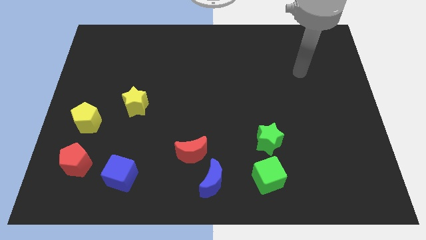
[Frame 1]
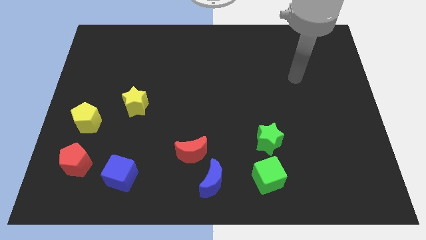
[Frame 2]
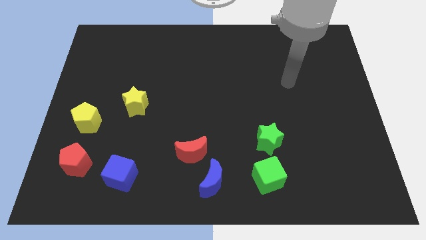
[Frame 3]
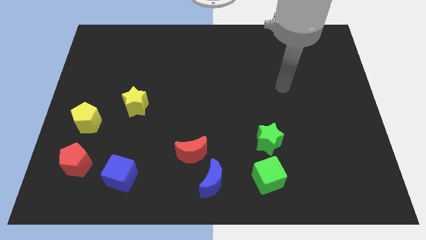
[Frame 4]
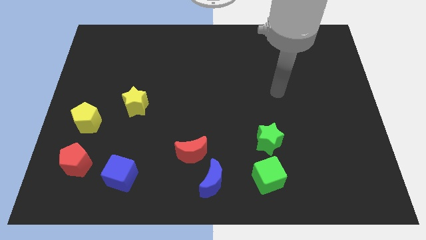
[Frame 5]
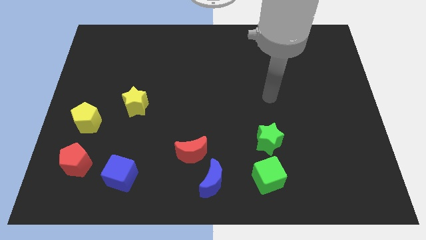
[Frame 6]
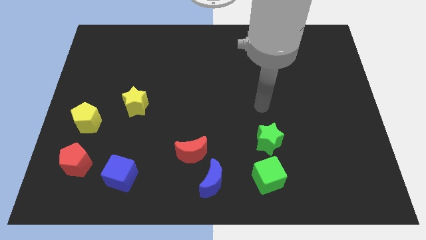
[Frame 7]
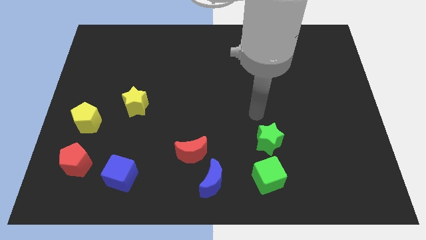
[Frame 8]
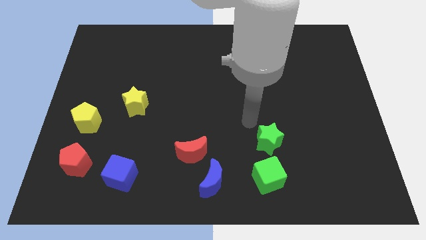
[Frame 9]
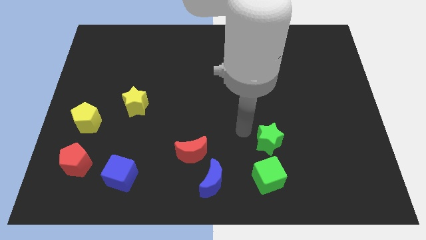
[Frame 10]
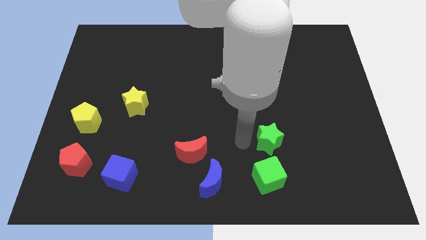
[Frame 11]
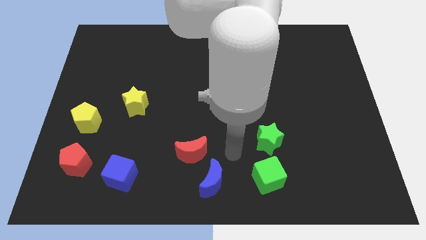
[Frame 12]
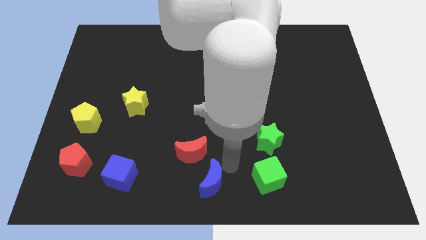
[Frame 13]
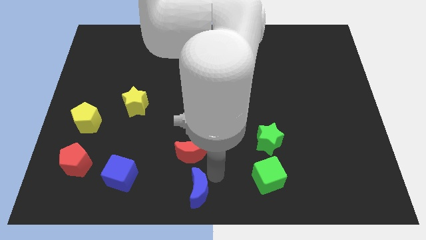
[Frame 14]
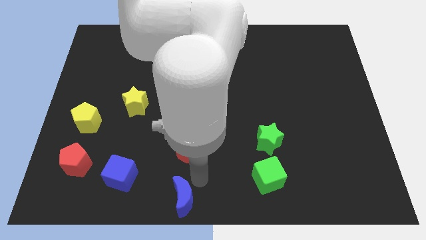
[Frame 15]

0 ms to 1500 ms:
move the red moon away from the blue moon

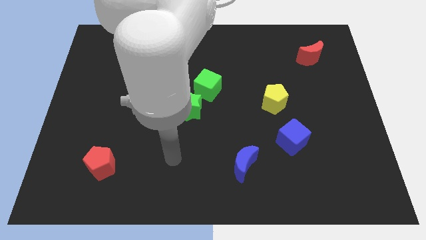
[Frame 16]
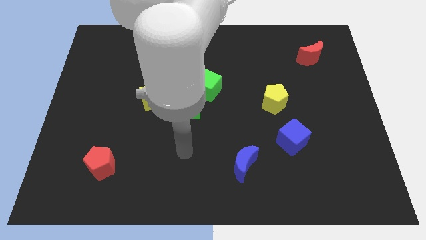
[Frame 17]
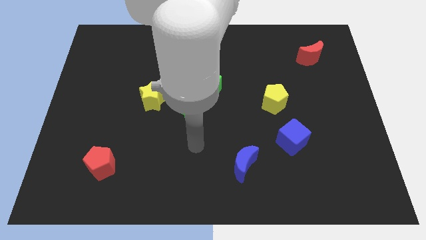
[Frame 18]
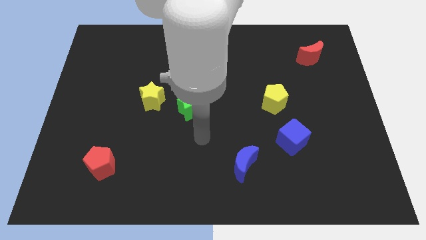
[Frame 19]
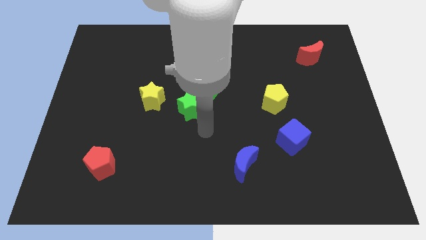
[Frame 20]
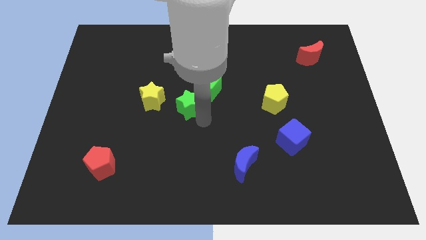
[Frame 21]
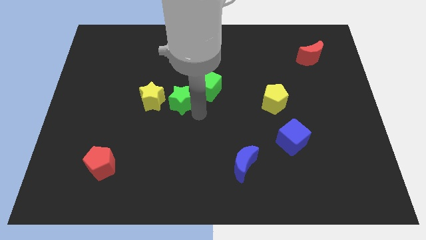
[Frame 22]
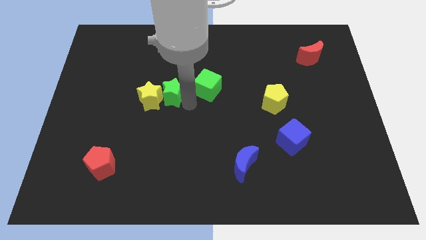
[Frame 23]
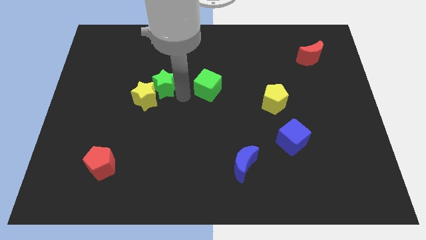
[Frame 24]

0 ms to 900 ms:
pull the green cube apart from the green star

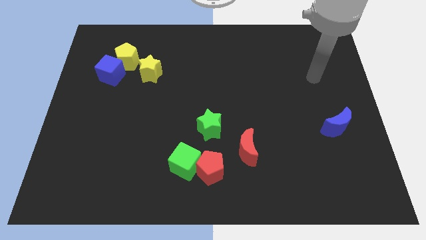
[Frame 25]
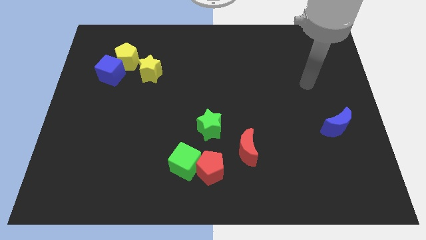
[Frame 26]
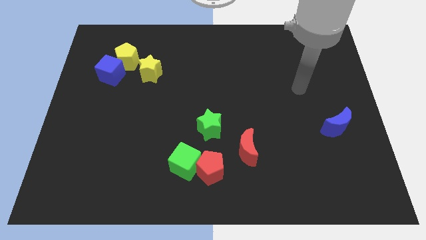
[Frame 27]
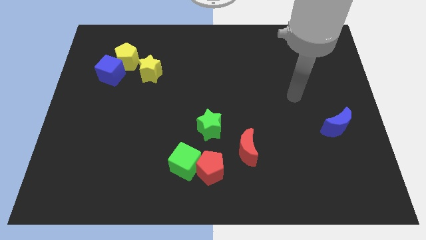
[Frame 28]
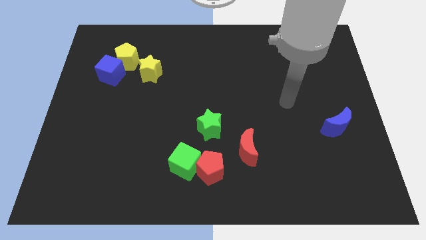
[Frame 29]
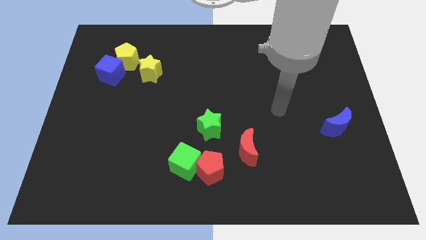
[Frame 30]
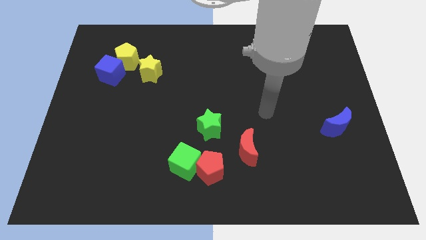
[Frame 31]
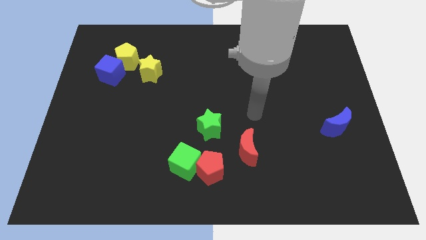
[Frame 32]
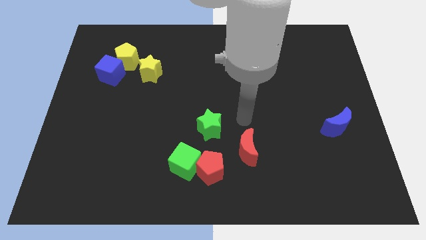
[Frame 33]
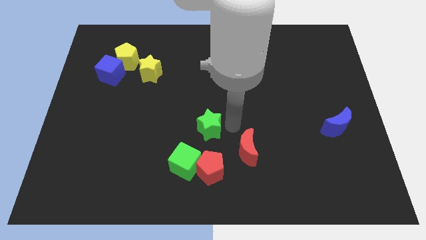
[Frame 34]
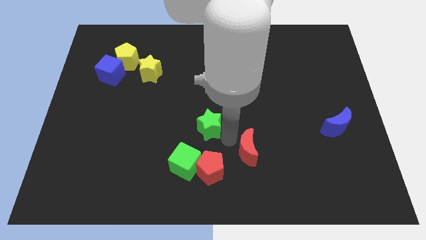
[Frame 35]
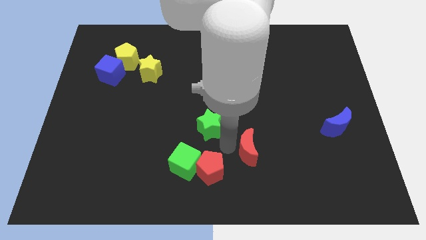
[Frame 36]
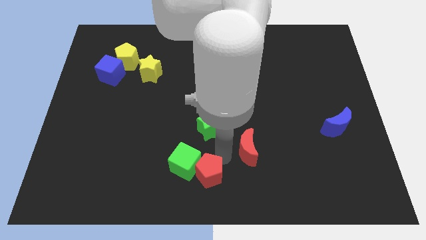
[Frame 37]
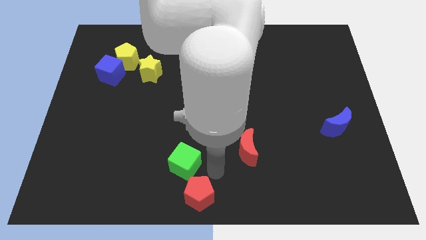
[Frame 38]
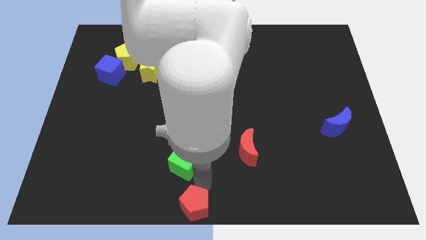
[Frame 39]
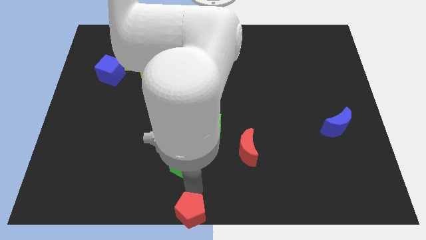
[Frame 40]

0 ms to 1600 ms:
separate the green cube from the red pentagon

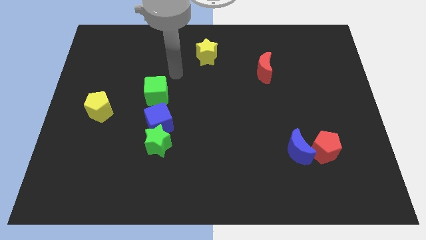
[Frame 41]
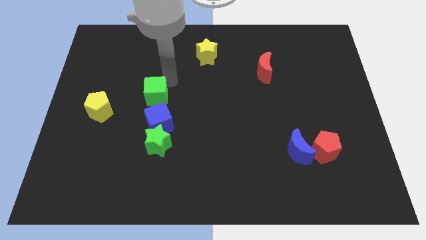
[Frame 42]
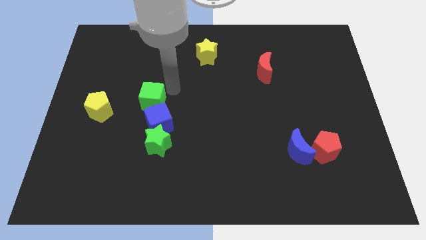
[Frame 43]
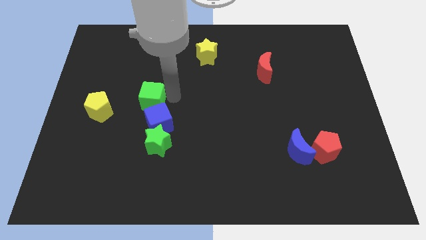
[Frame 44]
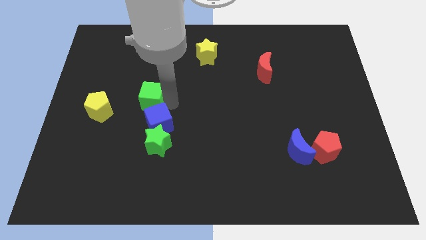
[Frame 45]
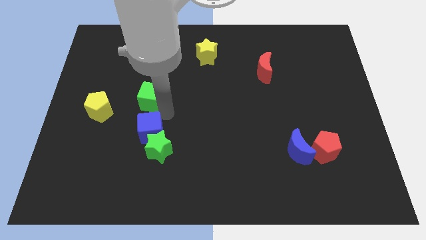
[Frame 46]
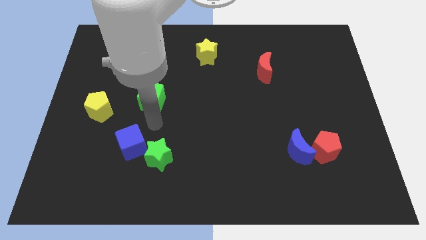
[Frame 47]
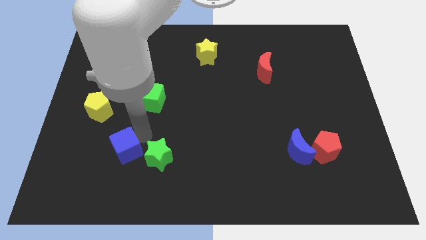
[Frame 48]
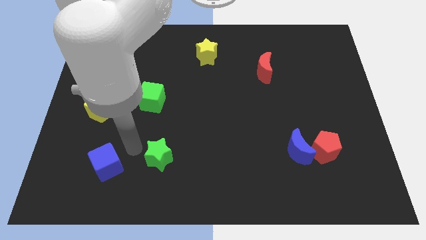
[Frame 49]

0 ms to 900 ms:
move the green star away from the blue cube

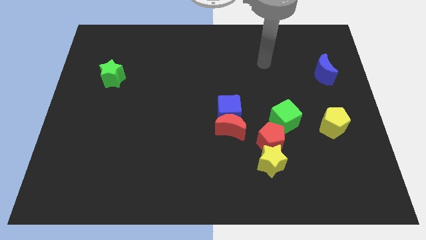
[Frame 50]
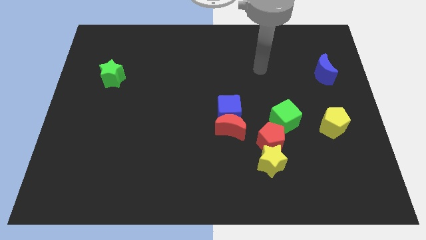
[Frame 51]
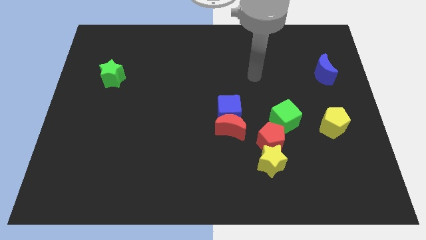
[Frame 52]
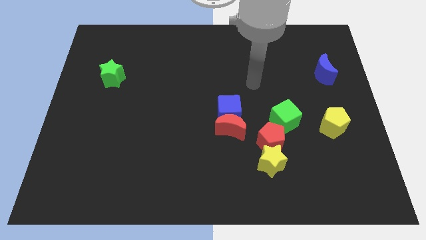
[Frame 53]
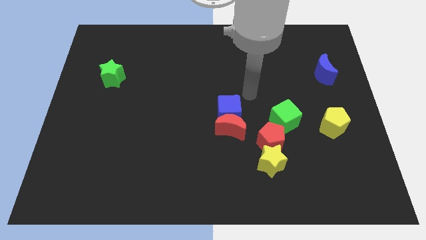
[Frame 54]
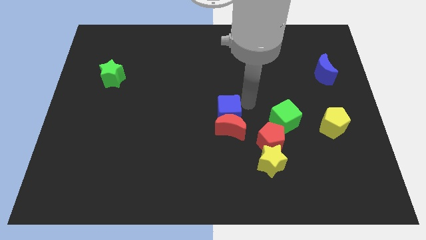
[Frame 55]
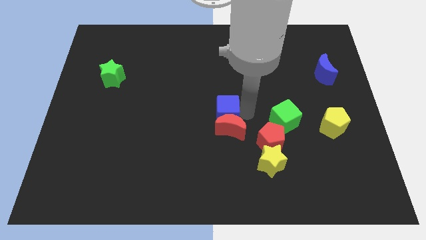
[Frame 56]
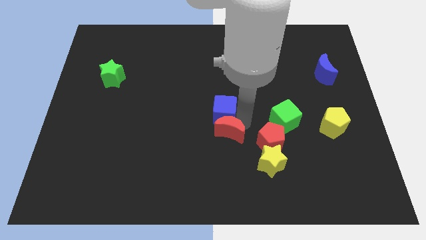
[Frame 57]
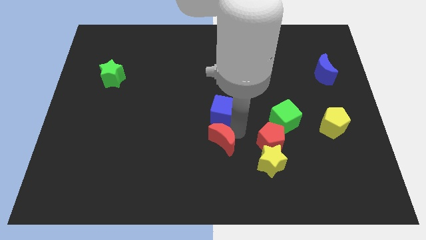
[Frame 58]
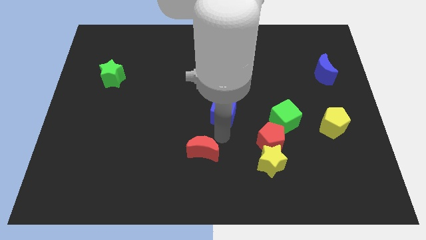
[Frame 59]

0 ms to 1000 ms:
pull the blue cube apart from the red moon

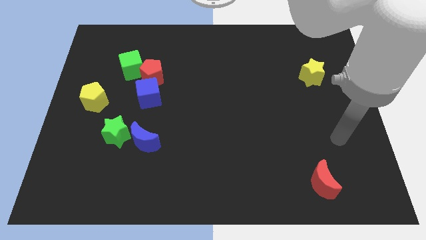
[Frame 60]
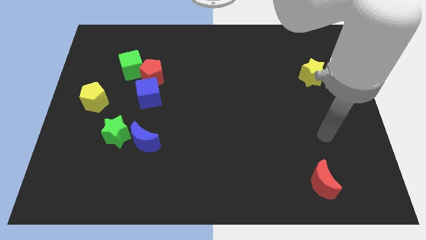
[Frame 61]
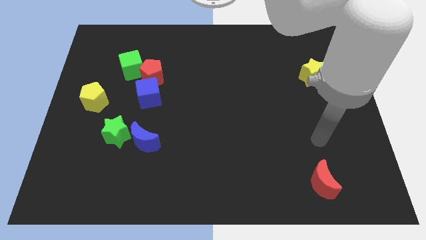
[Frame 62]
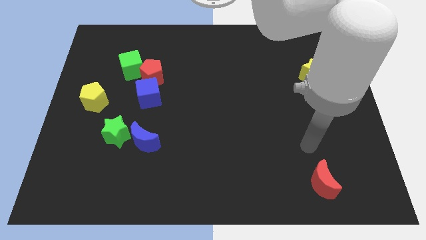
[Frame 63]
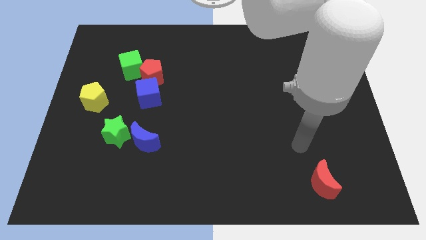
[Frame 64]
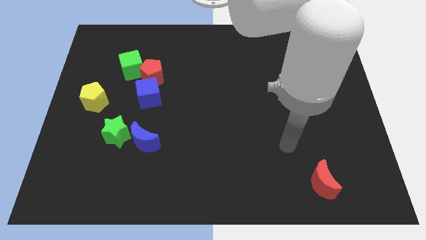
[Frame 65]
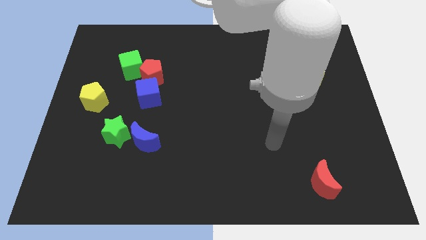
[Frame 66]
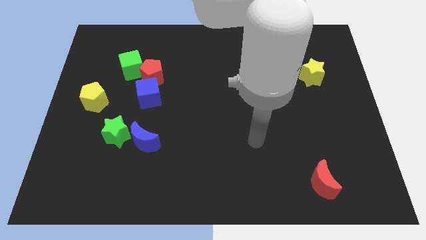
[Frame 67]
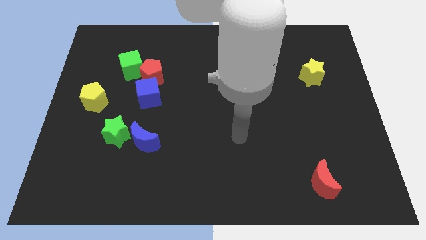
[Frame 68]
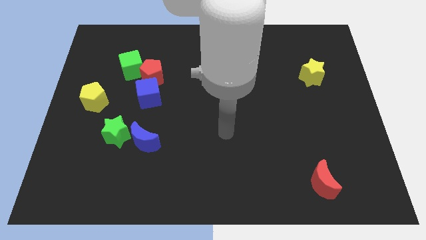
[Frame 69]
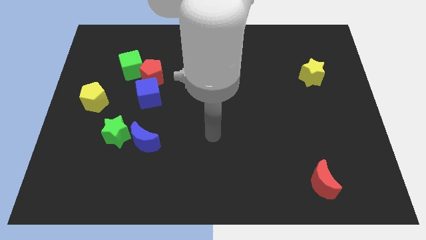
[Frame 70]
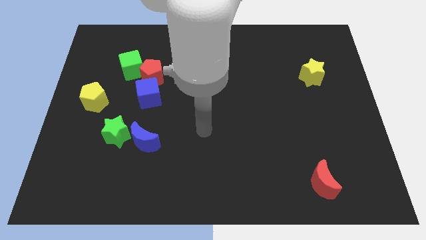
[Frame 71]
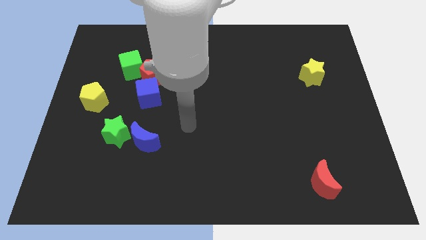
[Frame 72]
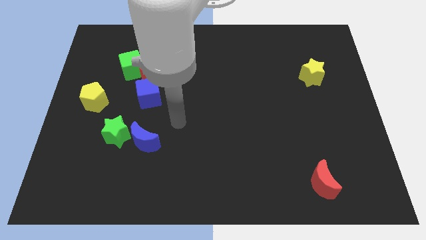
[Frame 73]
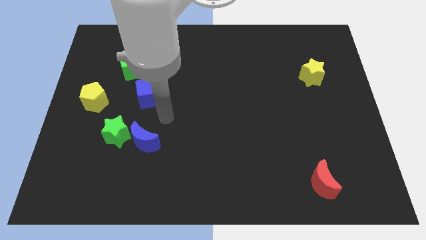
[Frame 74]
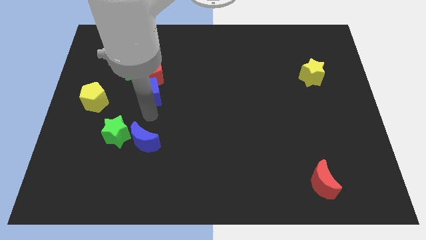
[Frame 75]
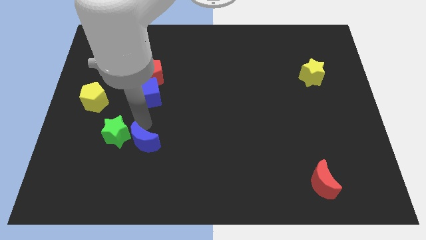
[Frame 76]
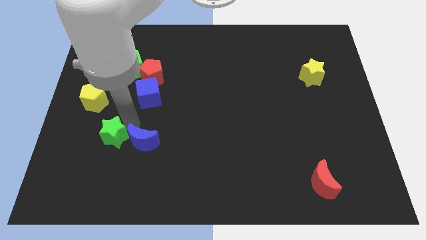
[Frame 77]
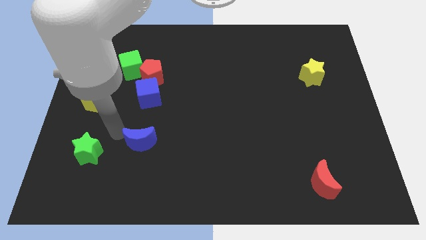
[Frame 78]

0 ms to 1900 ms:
pull the blue moon apart from the green star

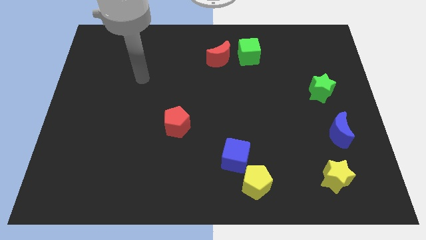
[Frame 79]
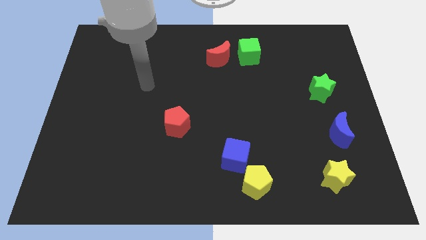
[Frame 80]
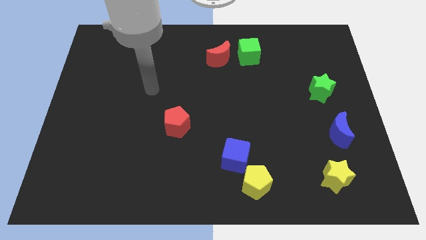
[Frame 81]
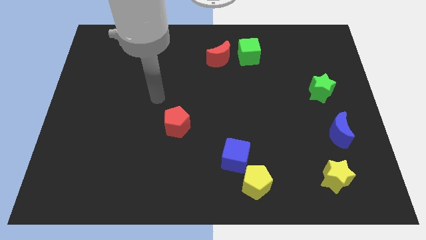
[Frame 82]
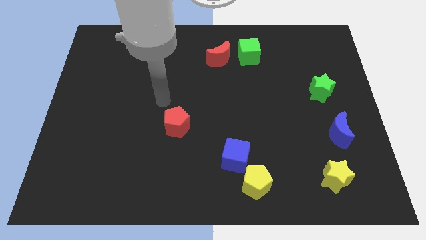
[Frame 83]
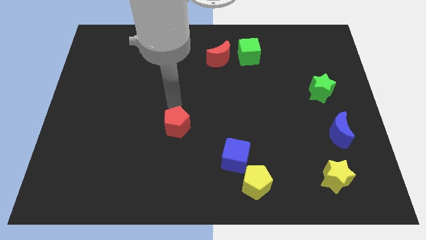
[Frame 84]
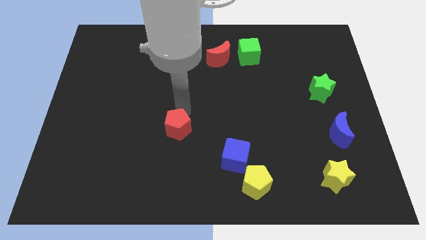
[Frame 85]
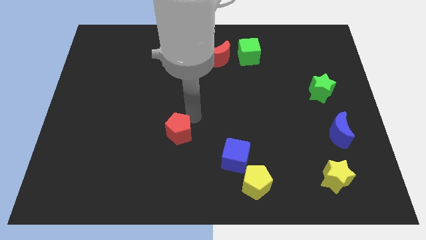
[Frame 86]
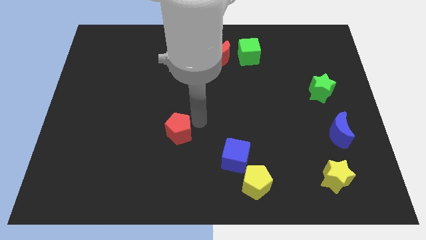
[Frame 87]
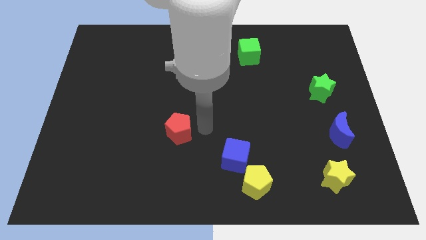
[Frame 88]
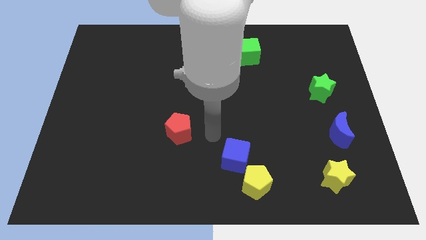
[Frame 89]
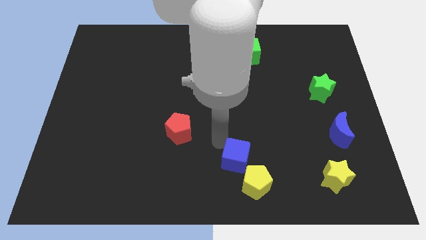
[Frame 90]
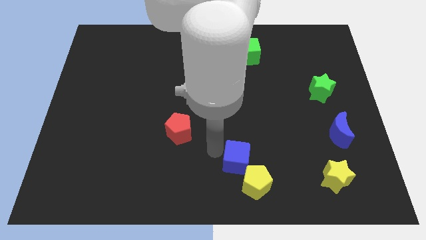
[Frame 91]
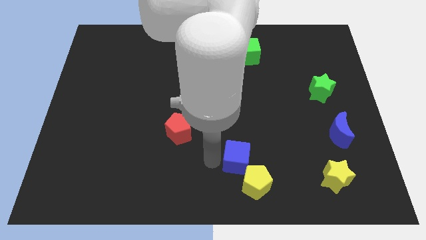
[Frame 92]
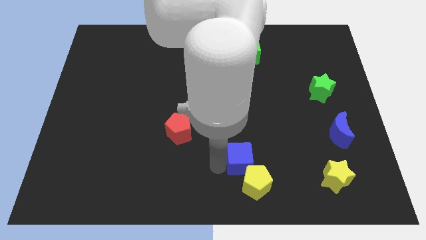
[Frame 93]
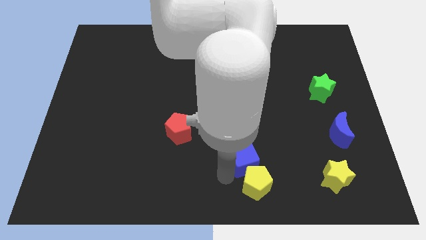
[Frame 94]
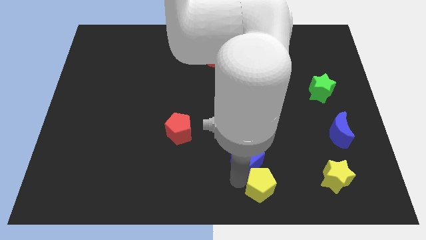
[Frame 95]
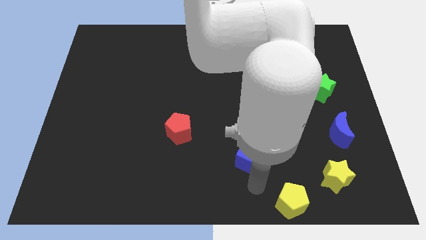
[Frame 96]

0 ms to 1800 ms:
move the blue cube away from the yellow pentagon
